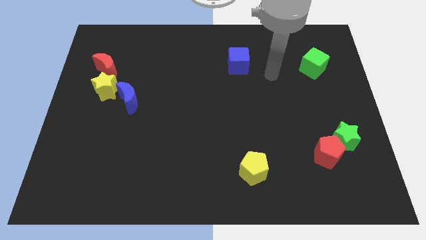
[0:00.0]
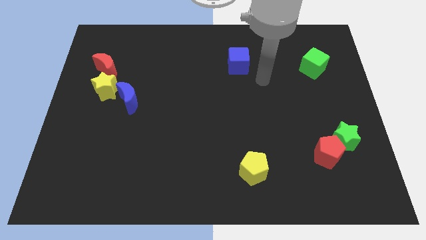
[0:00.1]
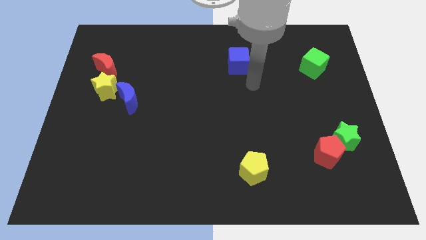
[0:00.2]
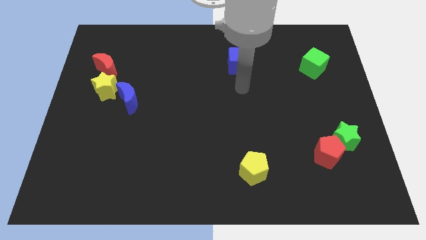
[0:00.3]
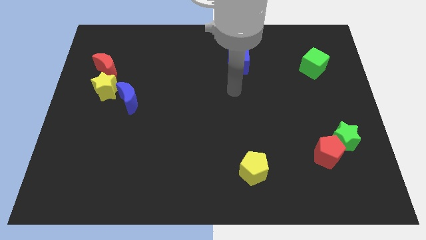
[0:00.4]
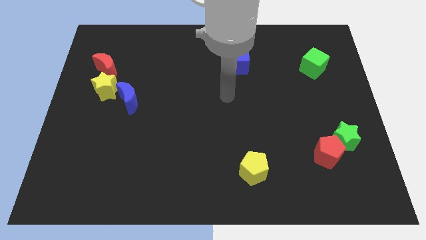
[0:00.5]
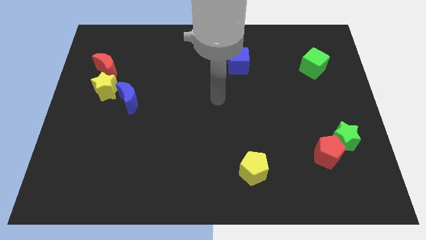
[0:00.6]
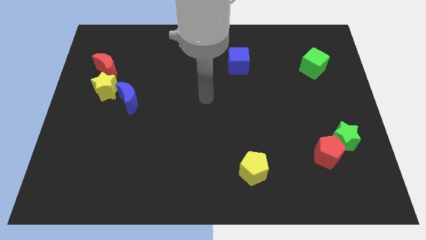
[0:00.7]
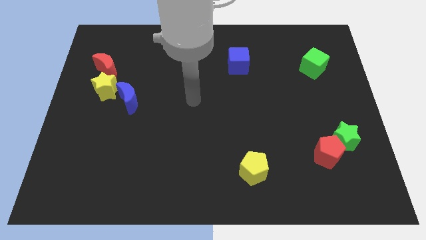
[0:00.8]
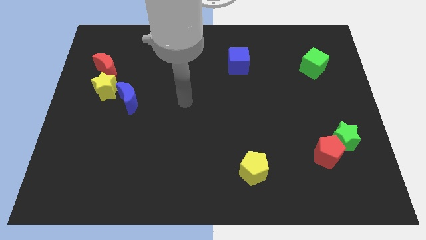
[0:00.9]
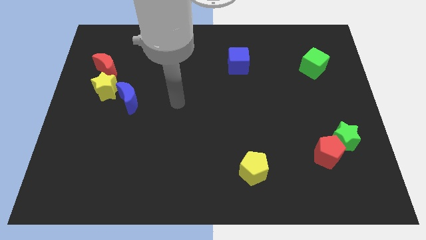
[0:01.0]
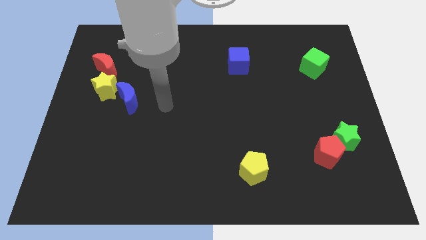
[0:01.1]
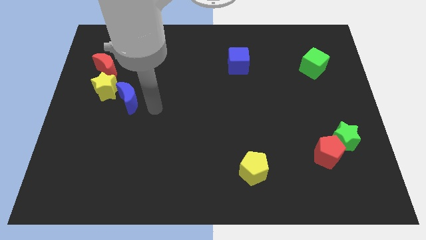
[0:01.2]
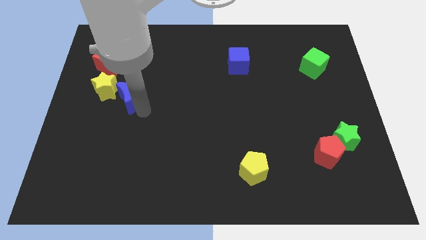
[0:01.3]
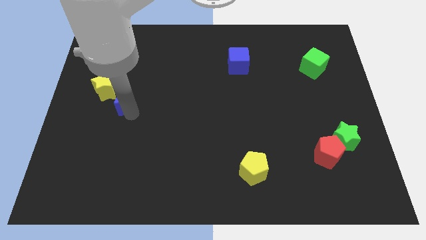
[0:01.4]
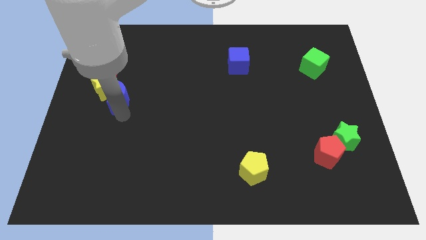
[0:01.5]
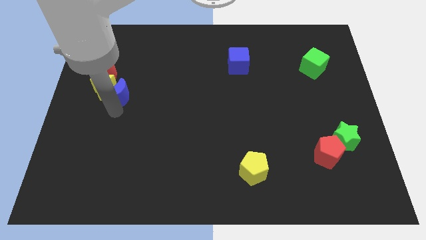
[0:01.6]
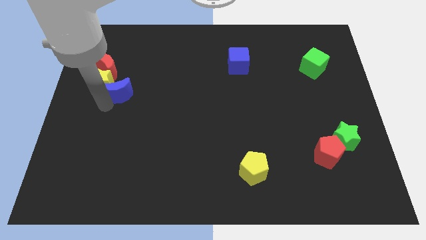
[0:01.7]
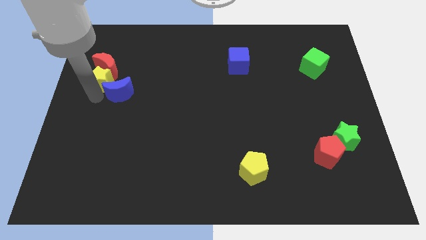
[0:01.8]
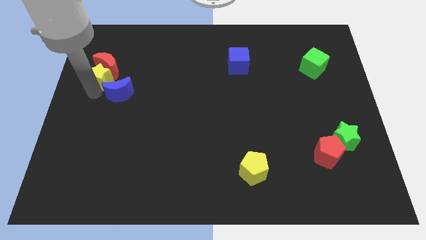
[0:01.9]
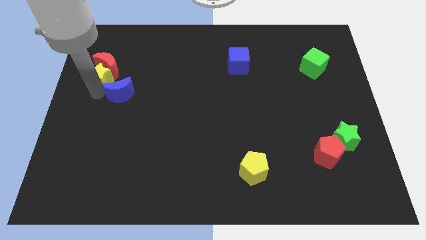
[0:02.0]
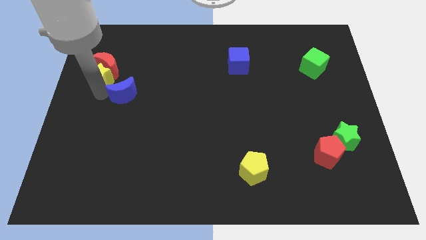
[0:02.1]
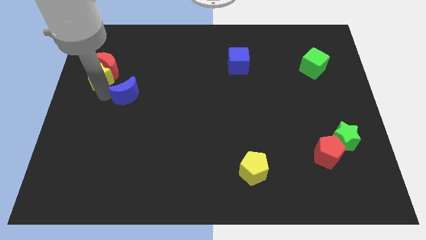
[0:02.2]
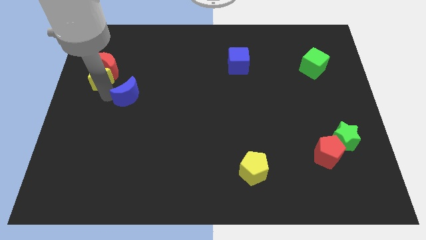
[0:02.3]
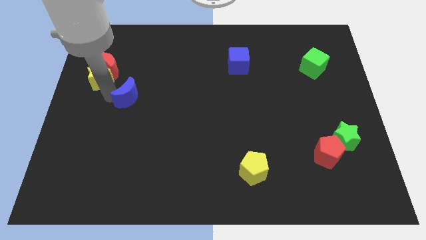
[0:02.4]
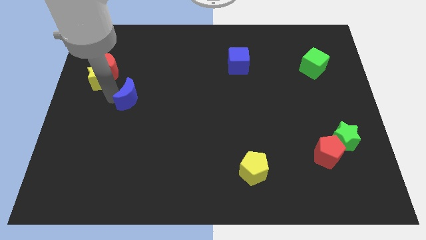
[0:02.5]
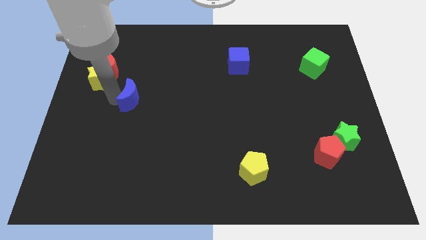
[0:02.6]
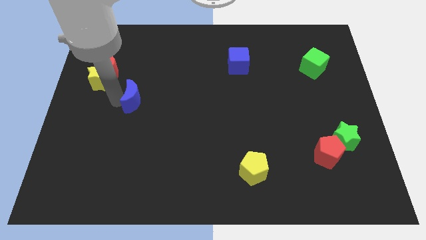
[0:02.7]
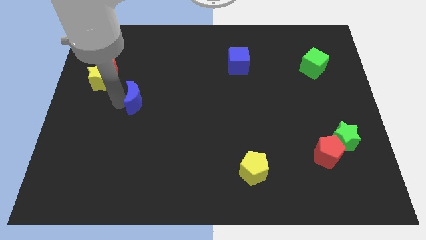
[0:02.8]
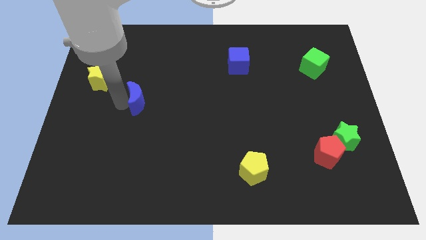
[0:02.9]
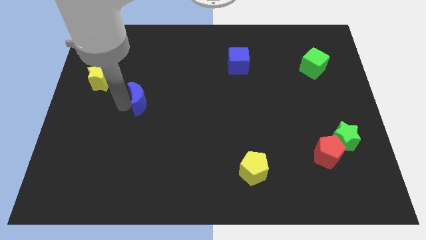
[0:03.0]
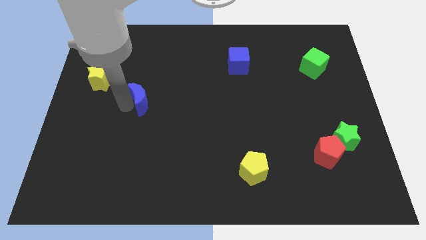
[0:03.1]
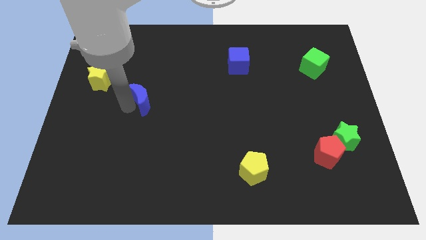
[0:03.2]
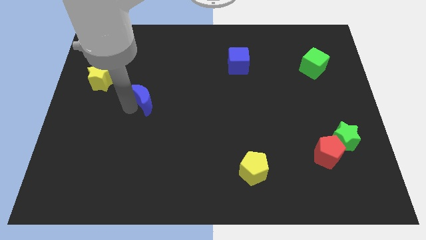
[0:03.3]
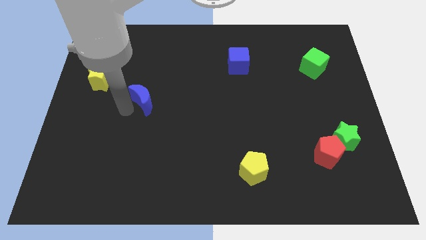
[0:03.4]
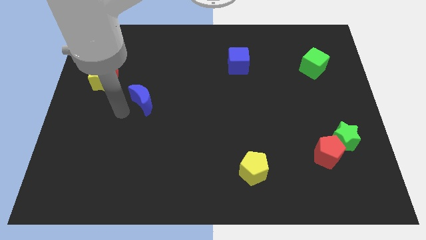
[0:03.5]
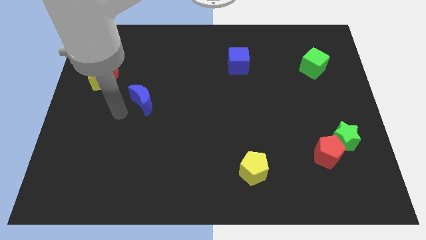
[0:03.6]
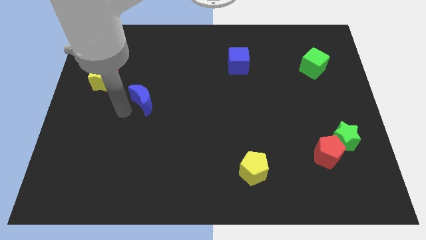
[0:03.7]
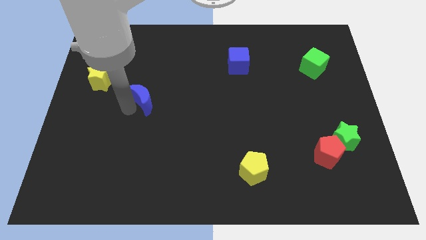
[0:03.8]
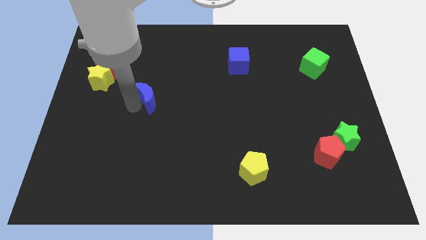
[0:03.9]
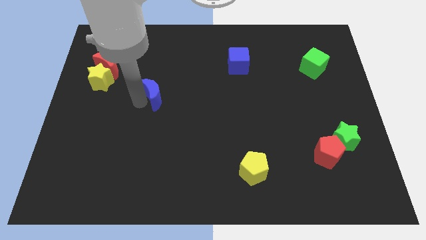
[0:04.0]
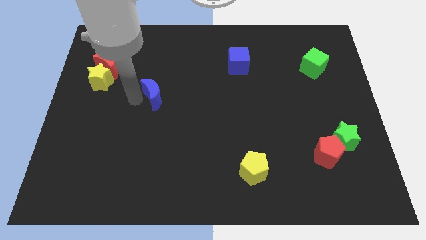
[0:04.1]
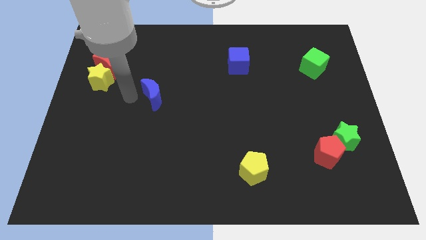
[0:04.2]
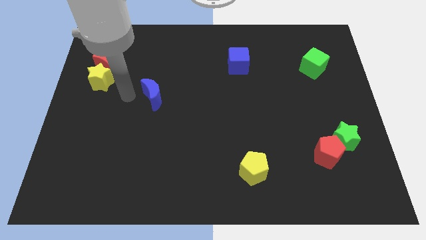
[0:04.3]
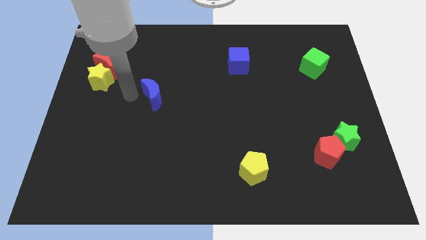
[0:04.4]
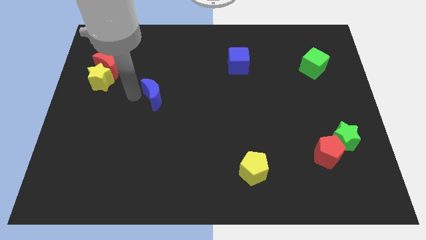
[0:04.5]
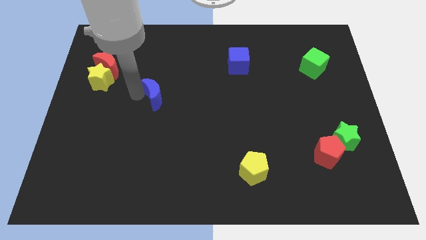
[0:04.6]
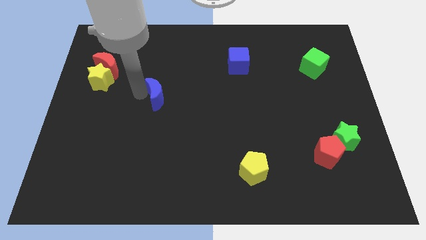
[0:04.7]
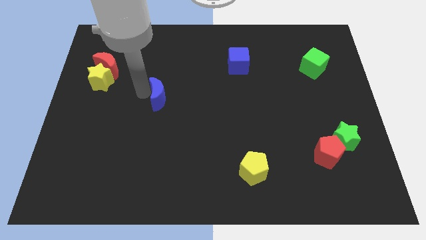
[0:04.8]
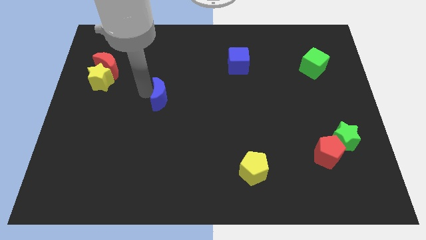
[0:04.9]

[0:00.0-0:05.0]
move the blue moon to the center

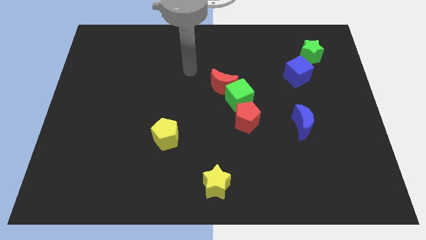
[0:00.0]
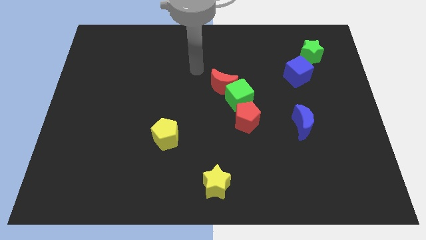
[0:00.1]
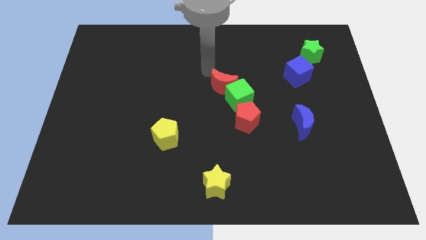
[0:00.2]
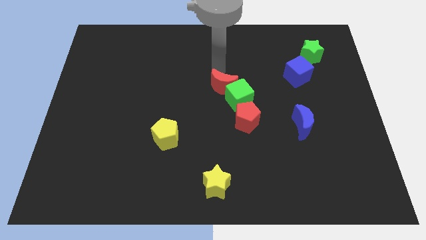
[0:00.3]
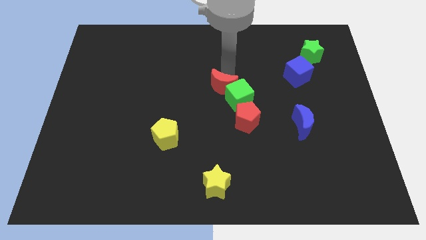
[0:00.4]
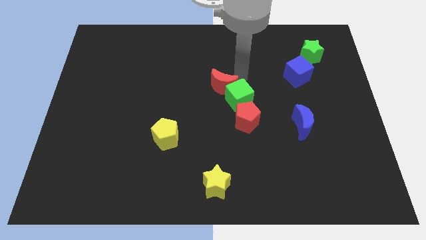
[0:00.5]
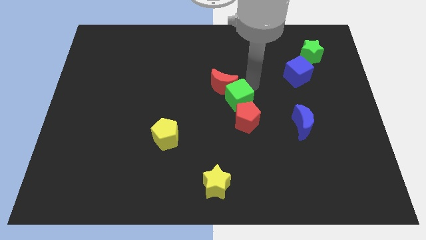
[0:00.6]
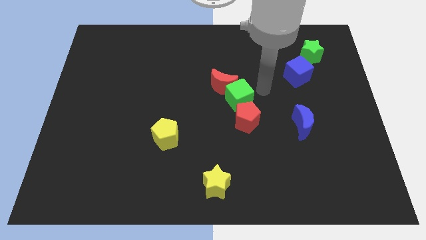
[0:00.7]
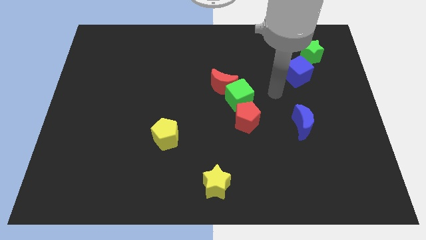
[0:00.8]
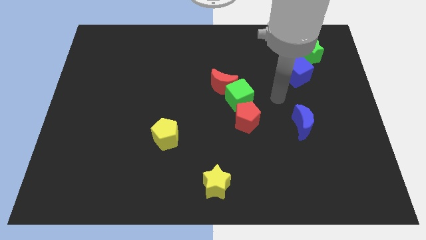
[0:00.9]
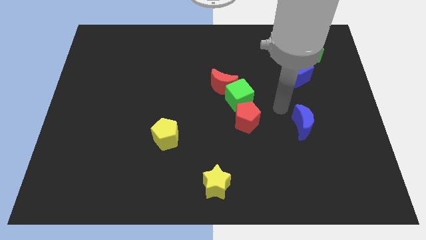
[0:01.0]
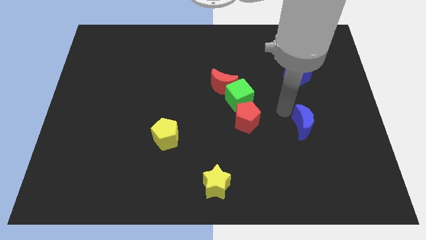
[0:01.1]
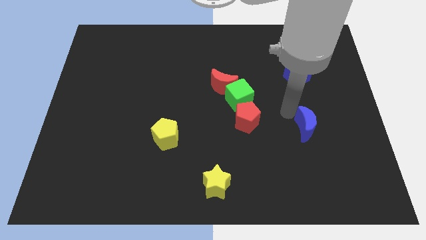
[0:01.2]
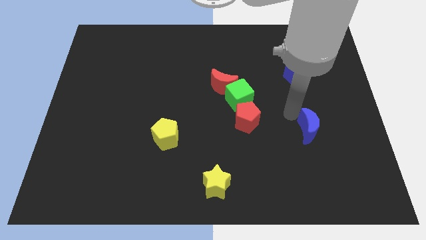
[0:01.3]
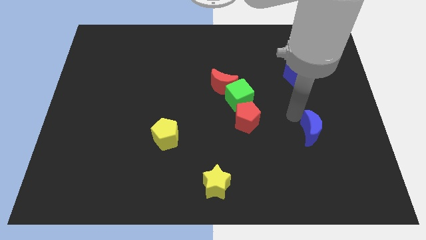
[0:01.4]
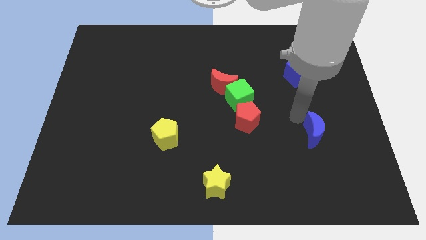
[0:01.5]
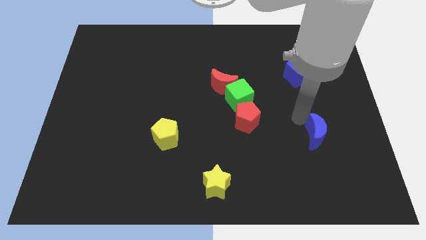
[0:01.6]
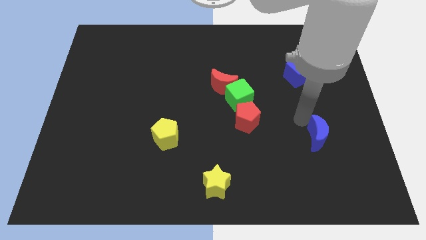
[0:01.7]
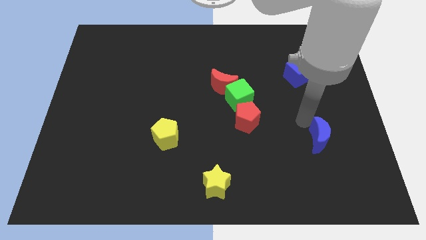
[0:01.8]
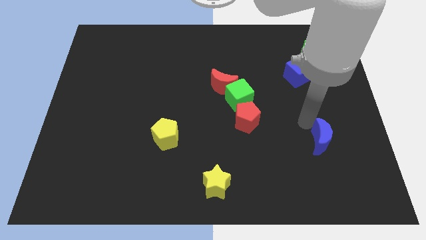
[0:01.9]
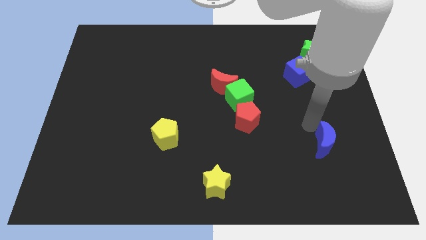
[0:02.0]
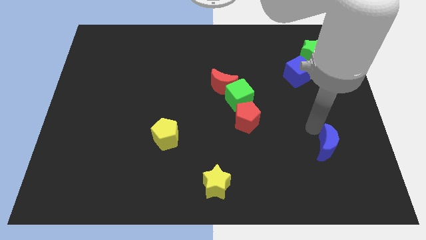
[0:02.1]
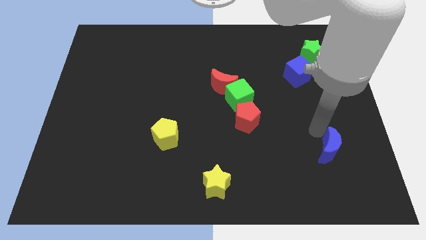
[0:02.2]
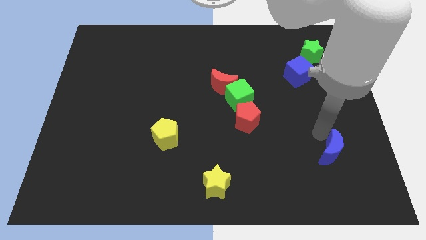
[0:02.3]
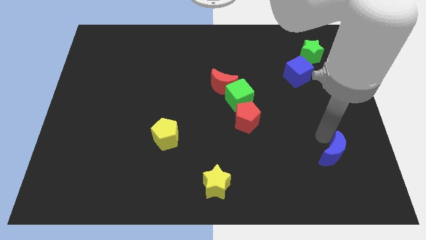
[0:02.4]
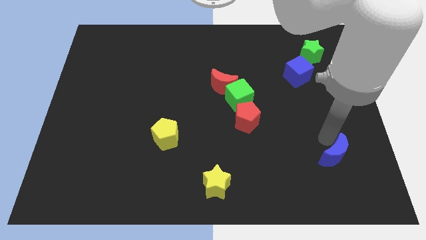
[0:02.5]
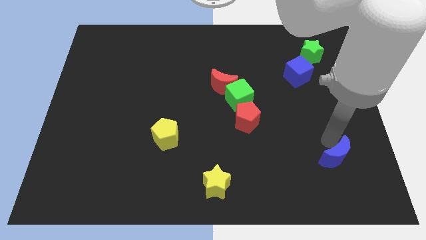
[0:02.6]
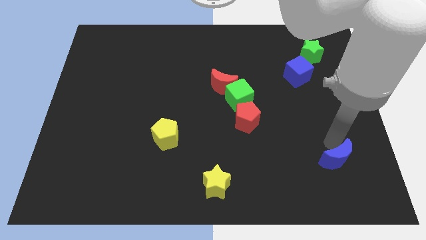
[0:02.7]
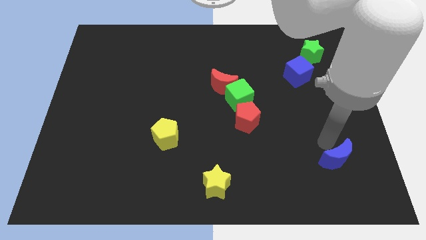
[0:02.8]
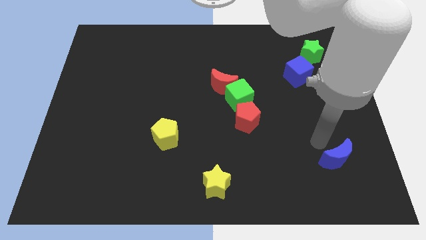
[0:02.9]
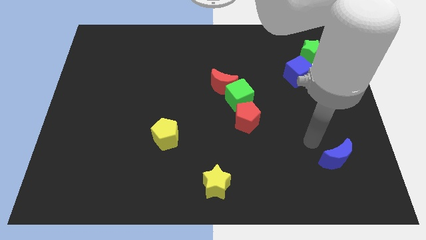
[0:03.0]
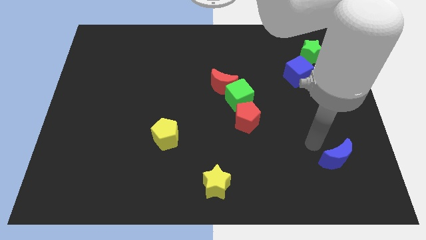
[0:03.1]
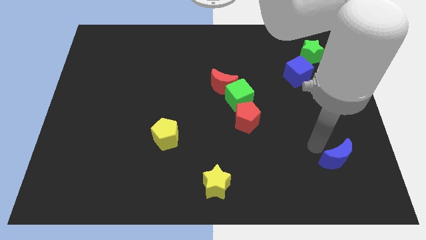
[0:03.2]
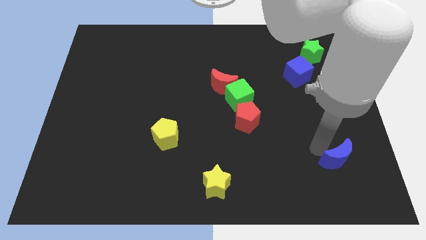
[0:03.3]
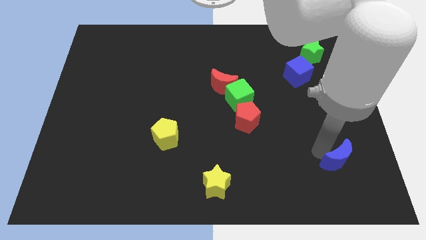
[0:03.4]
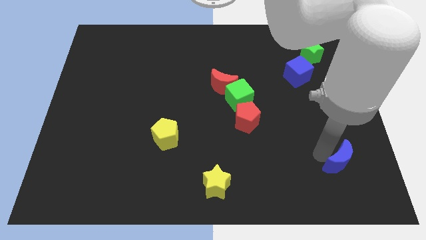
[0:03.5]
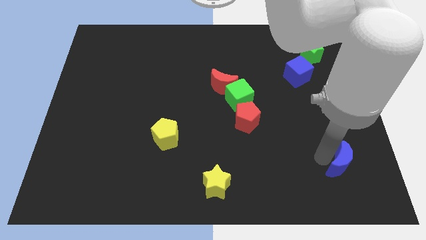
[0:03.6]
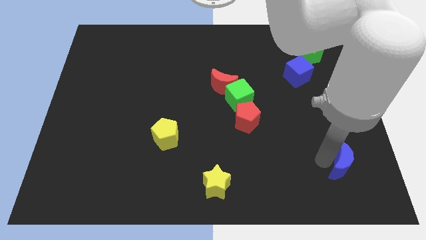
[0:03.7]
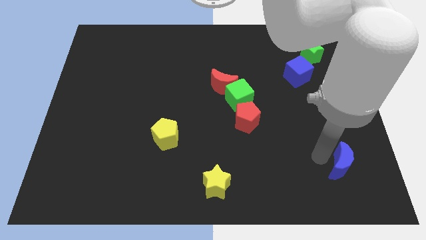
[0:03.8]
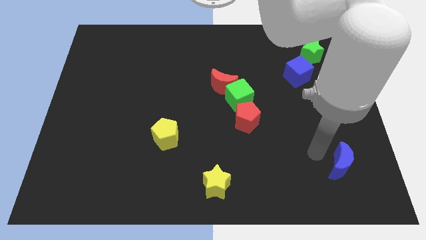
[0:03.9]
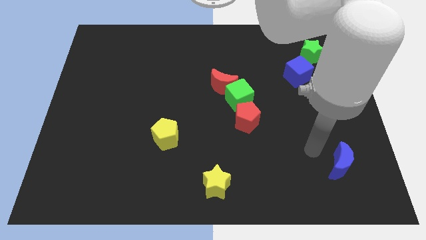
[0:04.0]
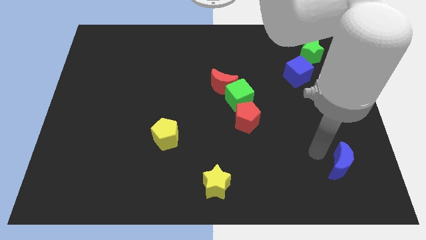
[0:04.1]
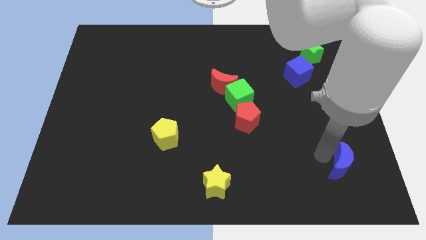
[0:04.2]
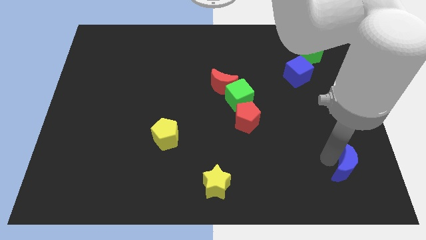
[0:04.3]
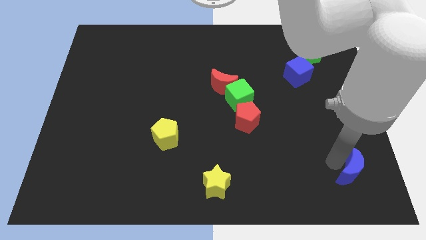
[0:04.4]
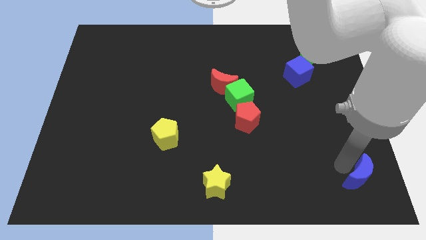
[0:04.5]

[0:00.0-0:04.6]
slide the blue moon to the lower right corner
